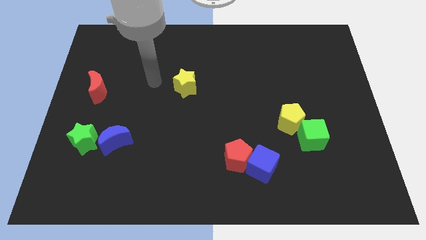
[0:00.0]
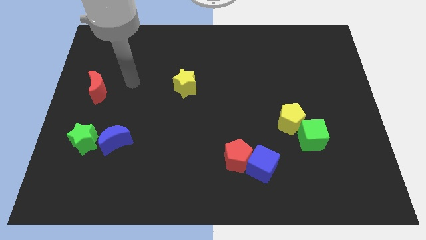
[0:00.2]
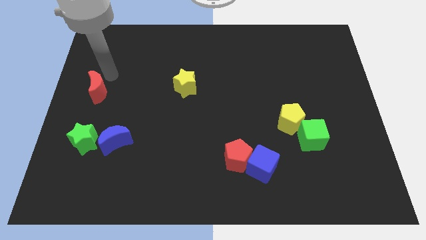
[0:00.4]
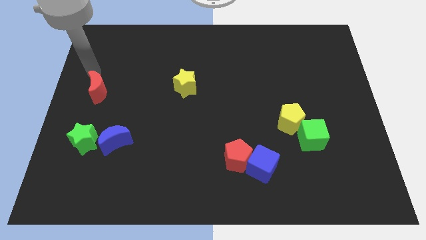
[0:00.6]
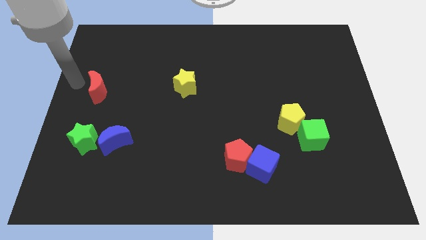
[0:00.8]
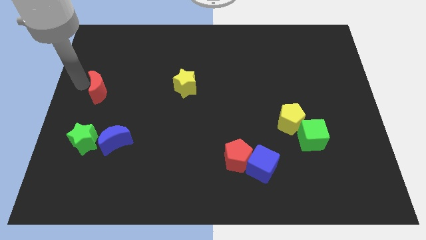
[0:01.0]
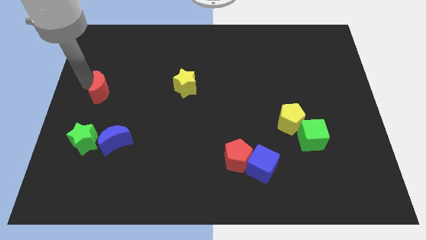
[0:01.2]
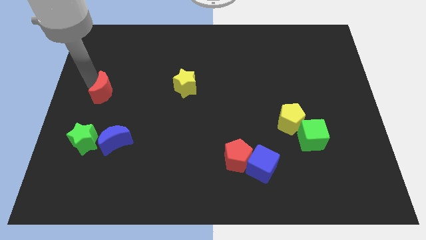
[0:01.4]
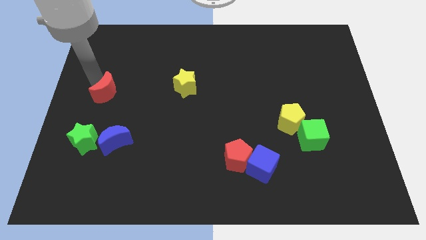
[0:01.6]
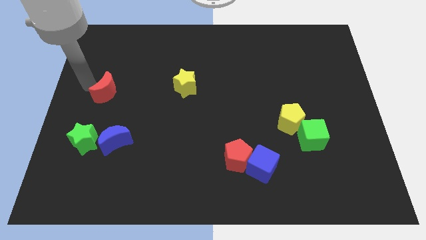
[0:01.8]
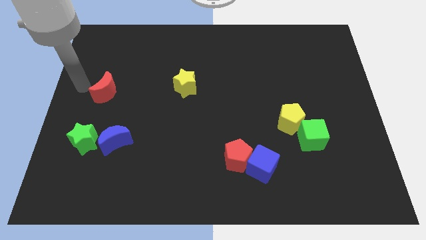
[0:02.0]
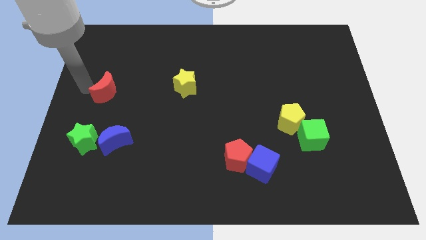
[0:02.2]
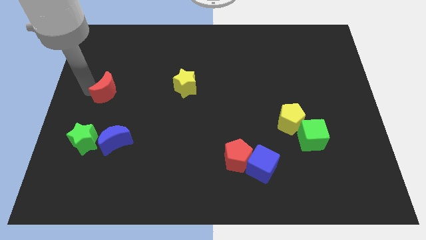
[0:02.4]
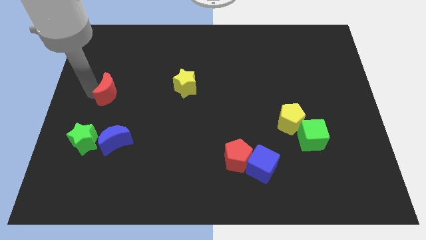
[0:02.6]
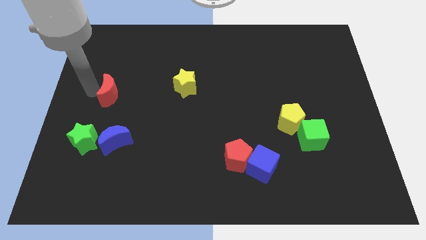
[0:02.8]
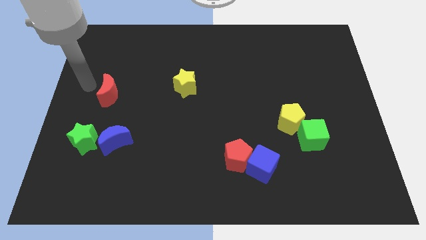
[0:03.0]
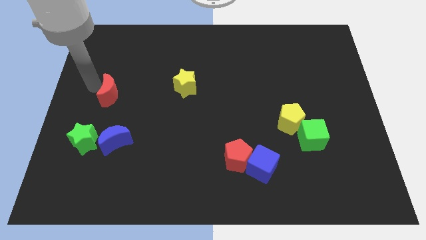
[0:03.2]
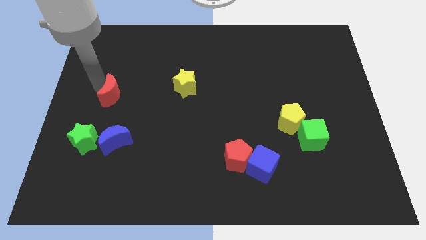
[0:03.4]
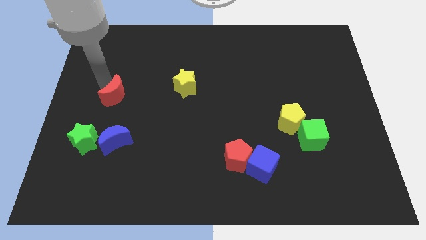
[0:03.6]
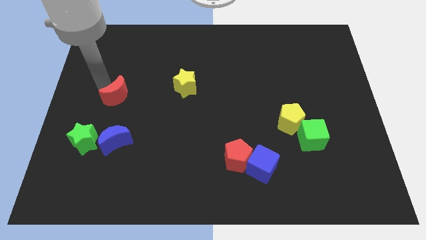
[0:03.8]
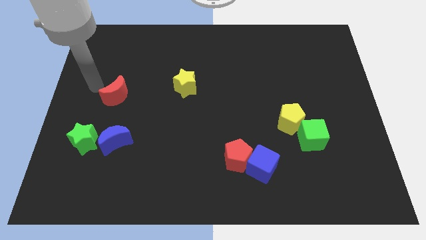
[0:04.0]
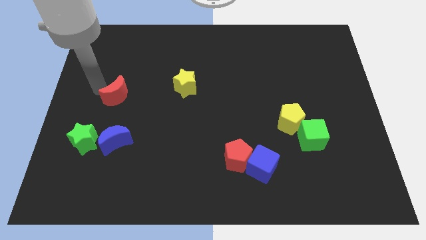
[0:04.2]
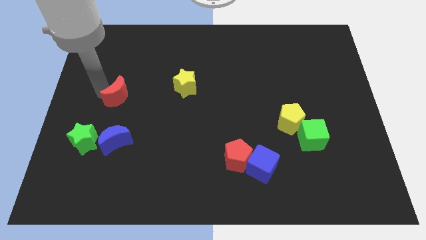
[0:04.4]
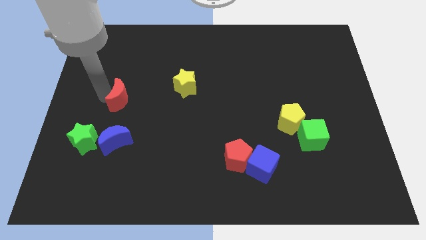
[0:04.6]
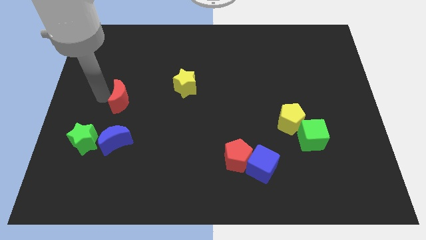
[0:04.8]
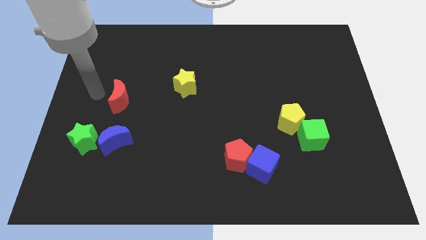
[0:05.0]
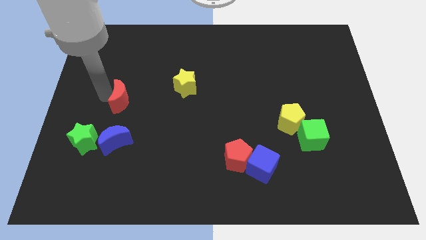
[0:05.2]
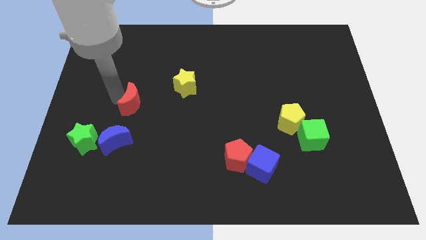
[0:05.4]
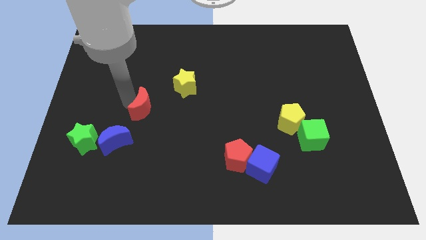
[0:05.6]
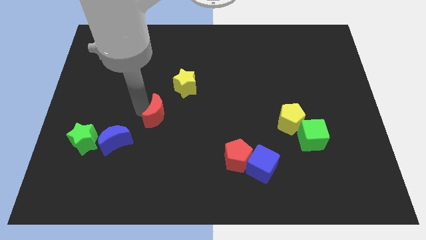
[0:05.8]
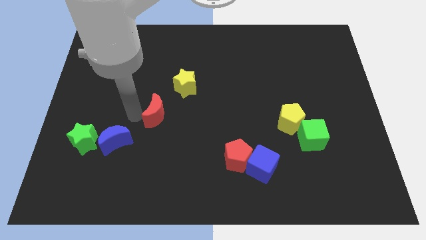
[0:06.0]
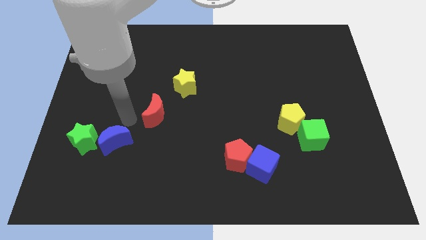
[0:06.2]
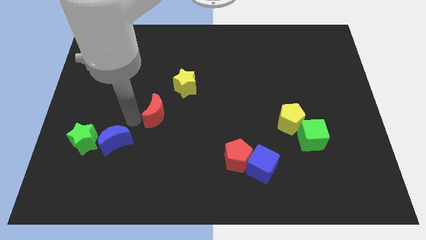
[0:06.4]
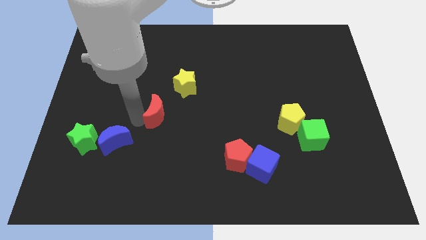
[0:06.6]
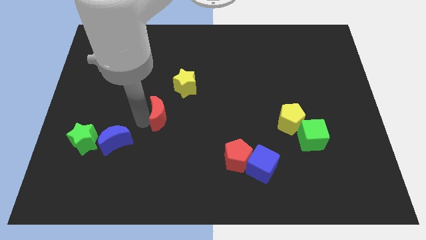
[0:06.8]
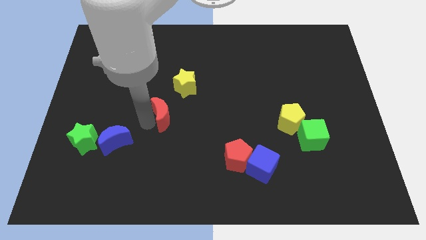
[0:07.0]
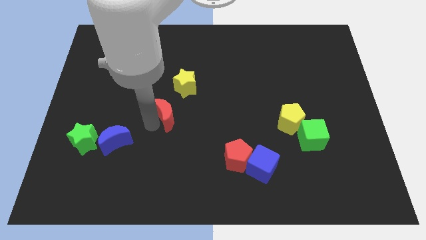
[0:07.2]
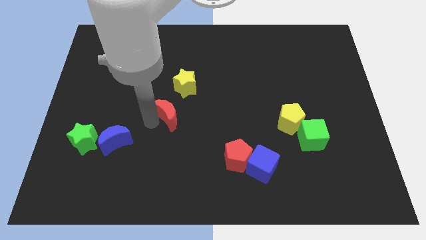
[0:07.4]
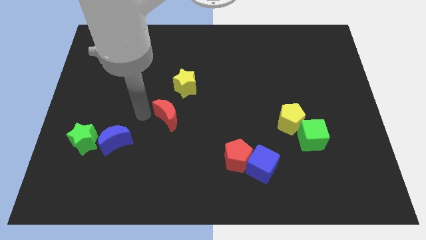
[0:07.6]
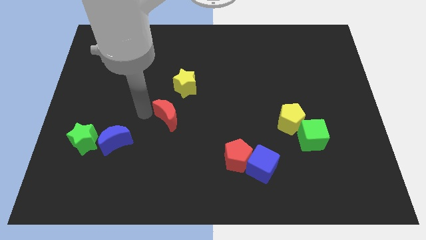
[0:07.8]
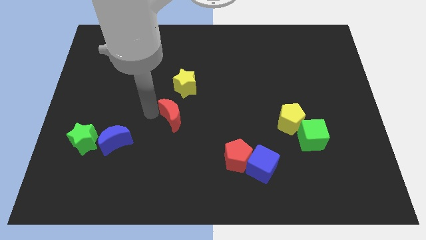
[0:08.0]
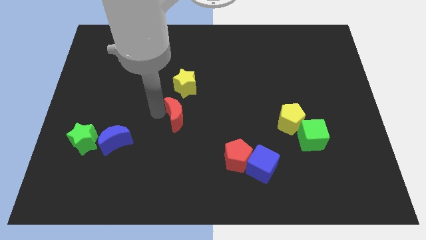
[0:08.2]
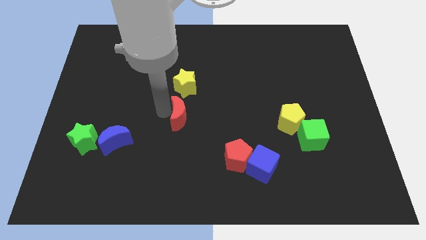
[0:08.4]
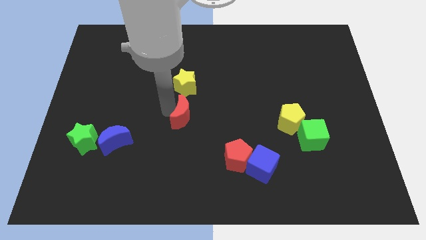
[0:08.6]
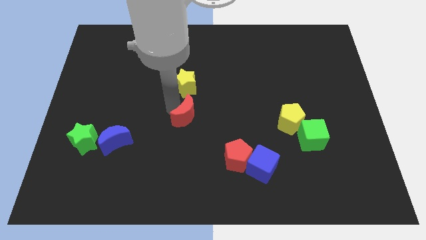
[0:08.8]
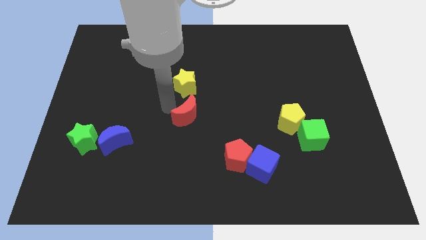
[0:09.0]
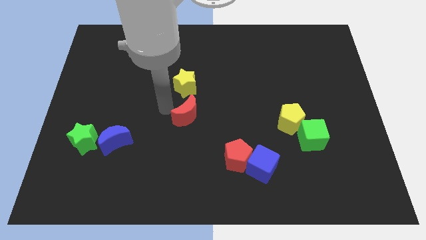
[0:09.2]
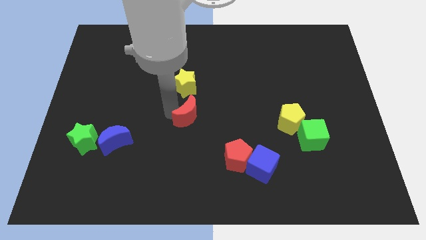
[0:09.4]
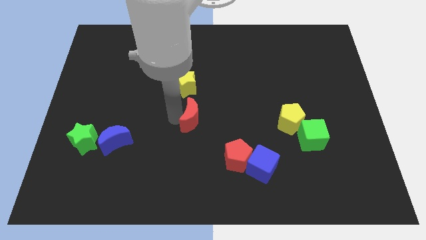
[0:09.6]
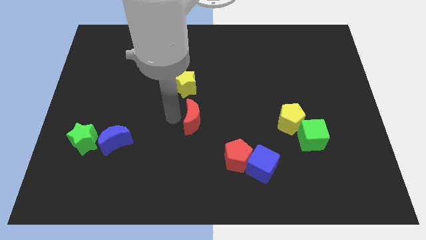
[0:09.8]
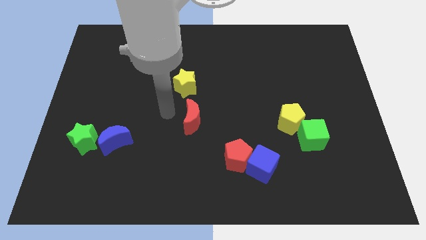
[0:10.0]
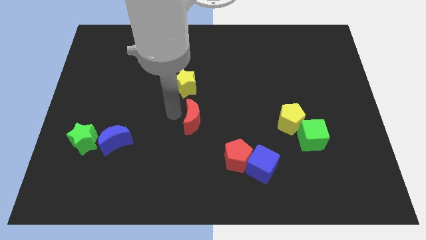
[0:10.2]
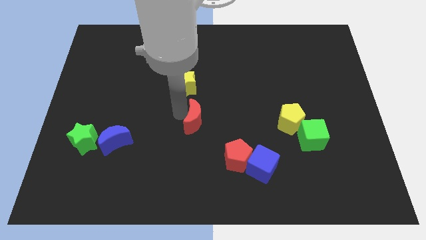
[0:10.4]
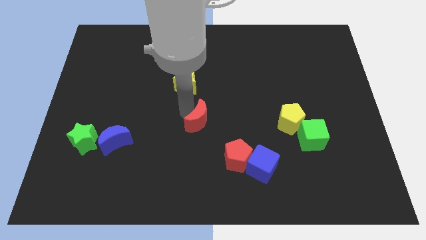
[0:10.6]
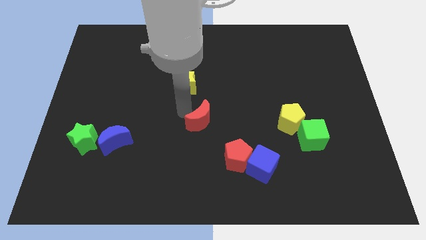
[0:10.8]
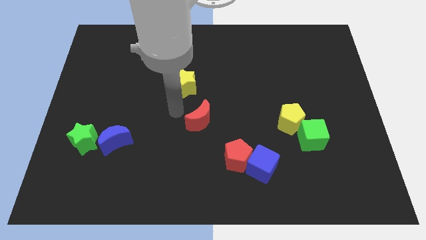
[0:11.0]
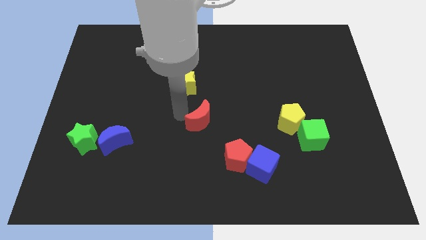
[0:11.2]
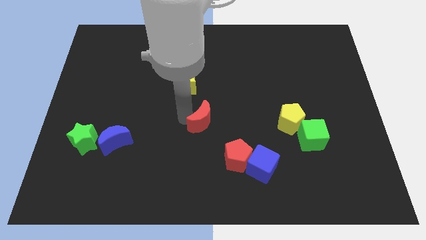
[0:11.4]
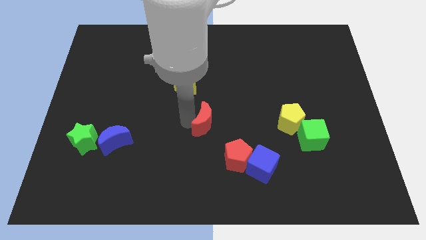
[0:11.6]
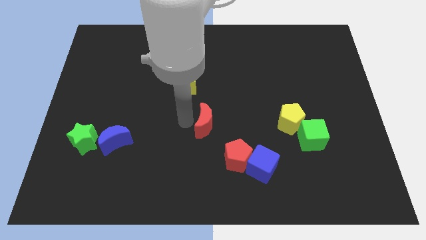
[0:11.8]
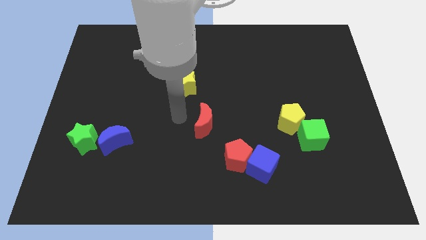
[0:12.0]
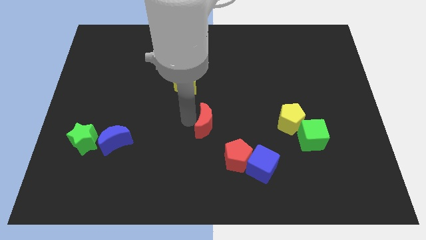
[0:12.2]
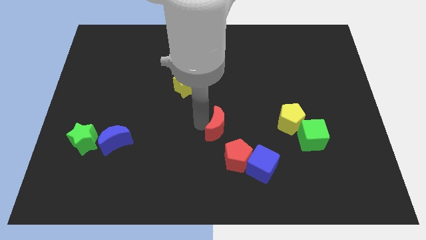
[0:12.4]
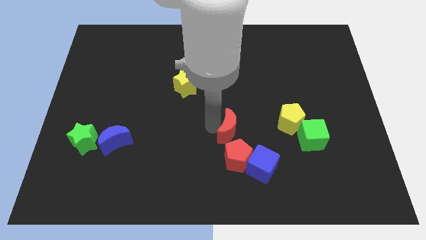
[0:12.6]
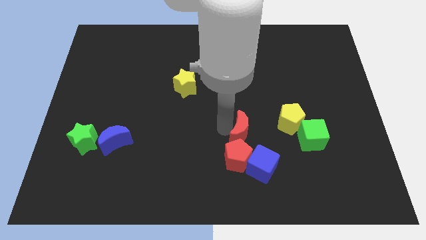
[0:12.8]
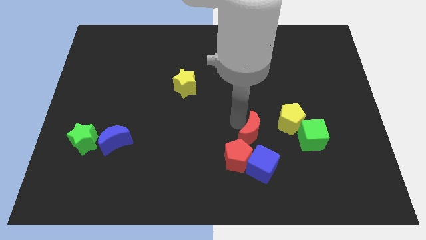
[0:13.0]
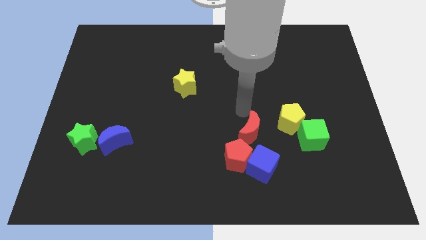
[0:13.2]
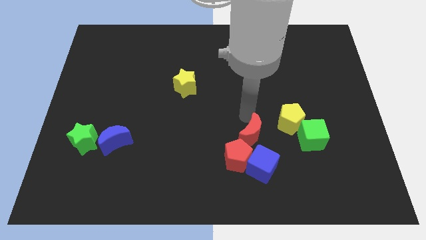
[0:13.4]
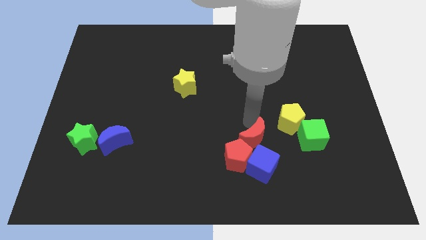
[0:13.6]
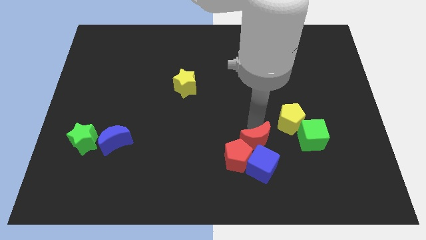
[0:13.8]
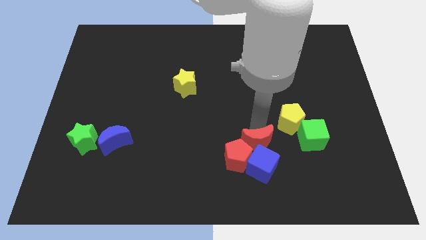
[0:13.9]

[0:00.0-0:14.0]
put the red moon towards the blue cube

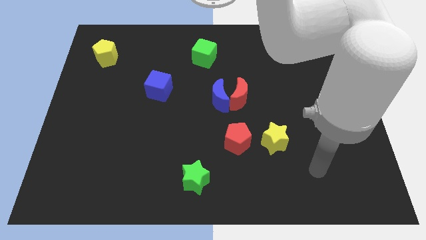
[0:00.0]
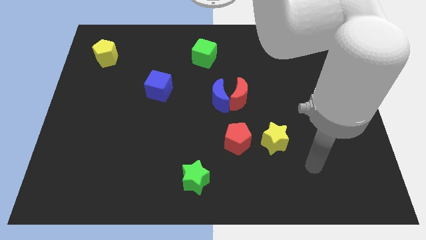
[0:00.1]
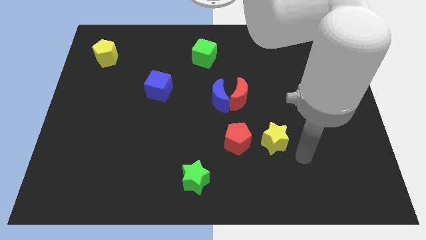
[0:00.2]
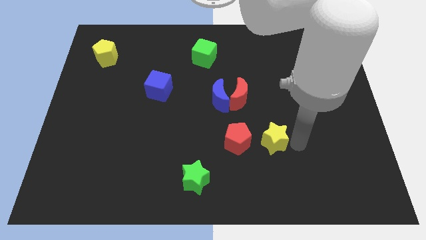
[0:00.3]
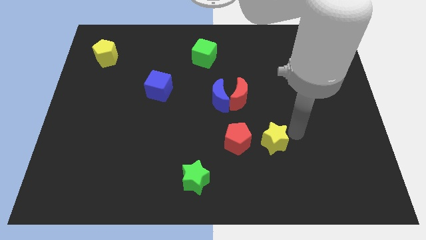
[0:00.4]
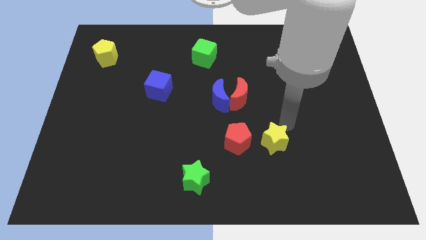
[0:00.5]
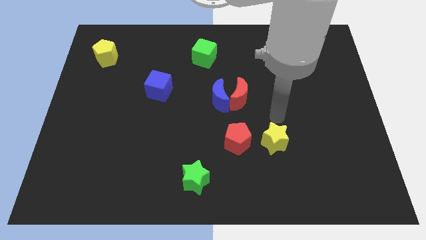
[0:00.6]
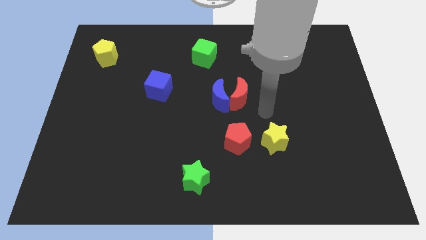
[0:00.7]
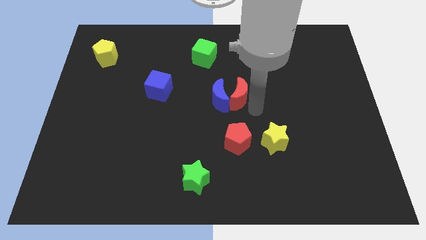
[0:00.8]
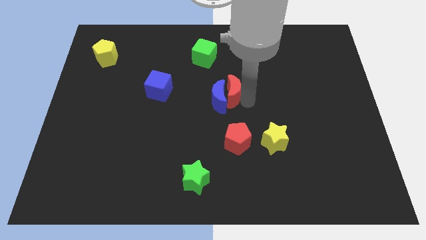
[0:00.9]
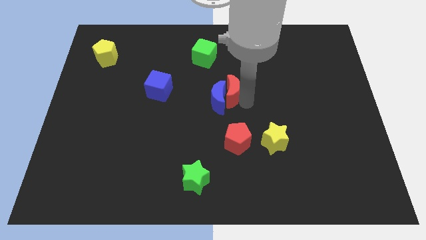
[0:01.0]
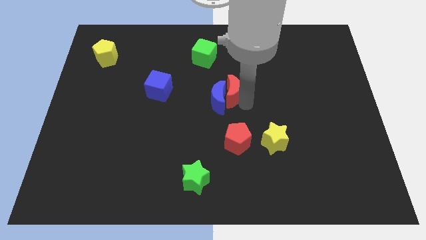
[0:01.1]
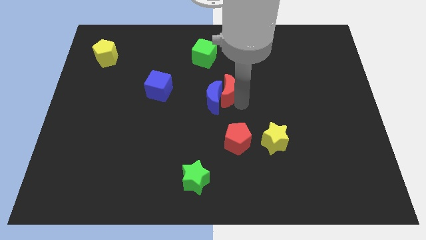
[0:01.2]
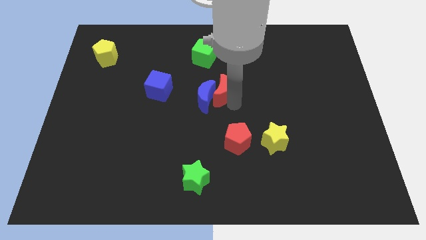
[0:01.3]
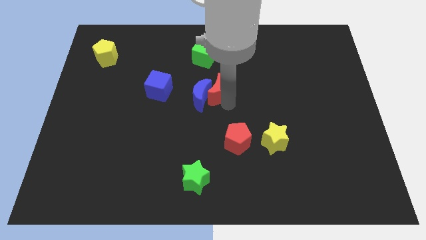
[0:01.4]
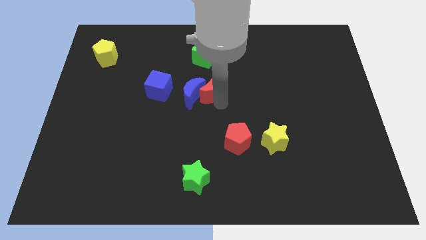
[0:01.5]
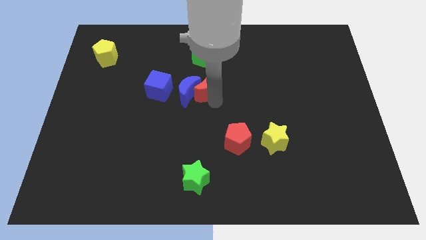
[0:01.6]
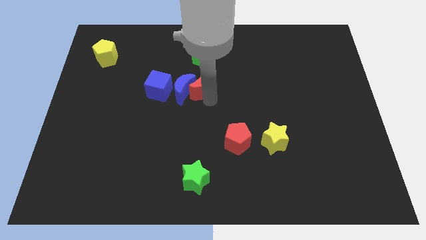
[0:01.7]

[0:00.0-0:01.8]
put the blue moon close to the blue cube
